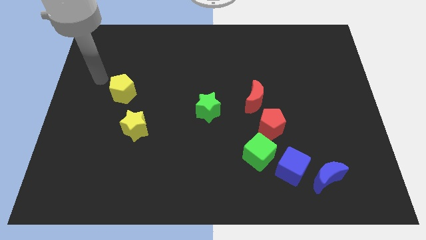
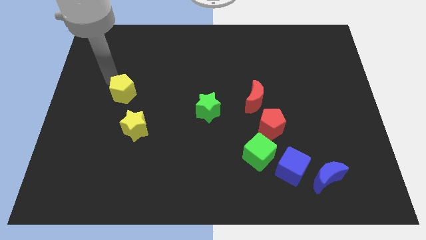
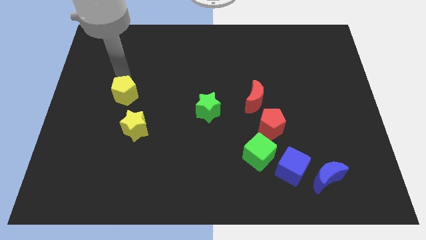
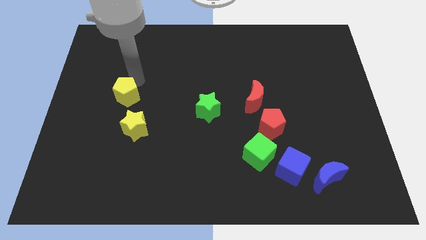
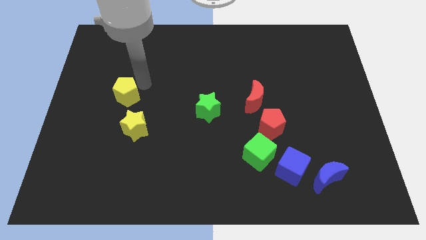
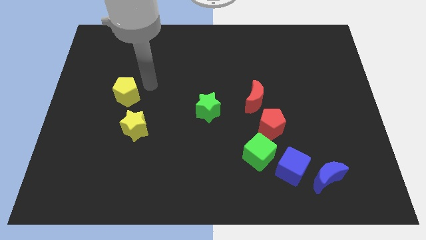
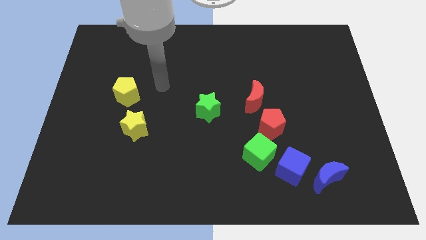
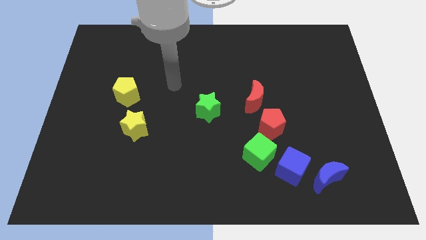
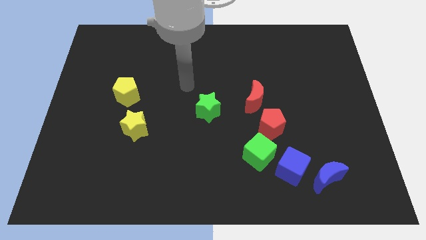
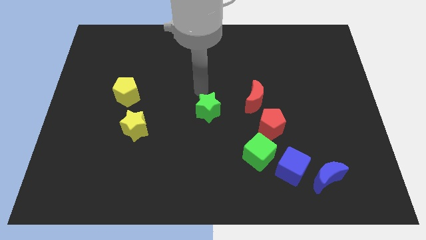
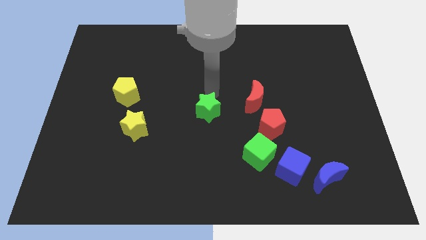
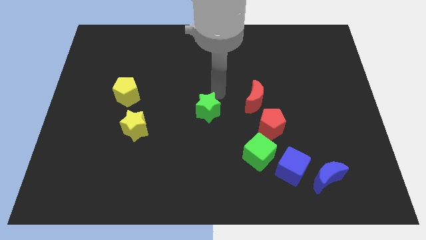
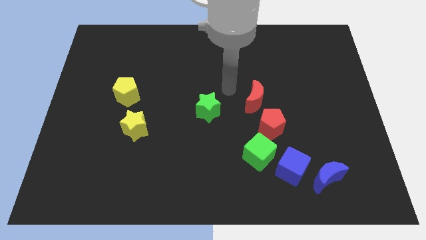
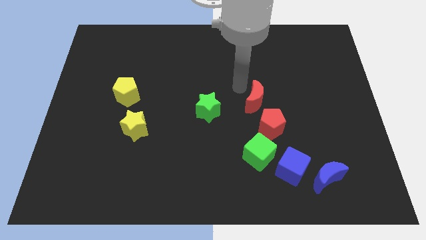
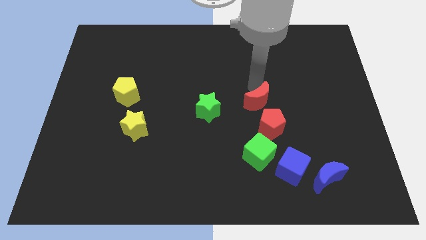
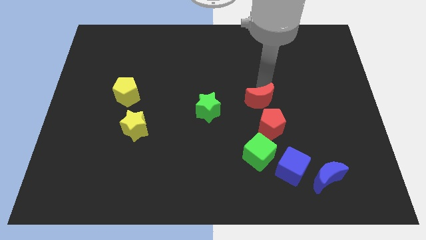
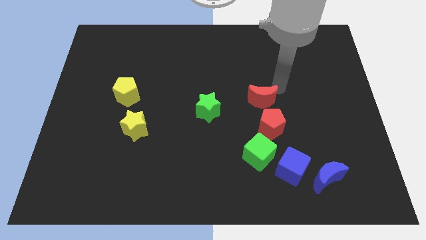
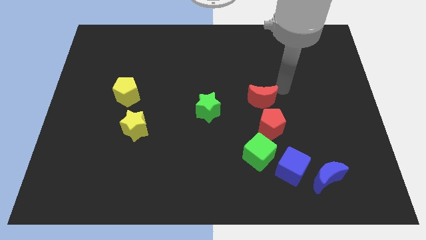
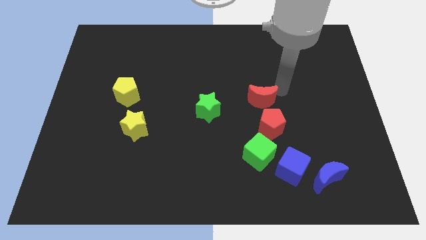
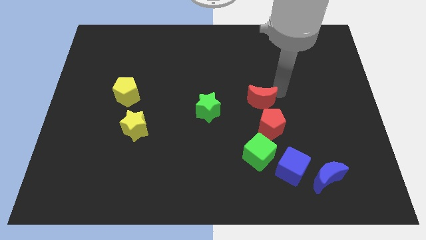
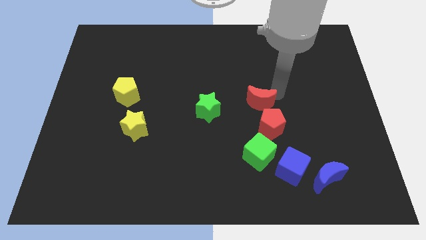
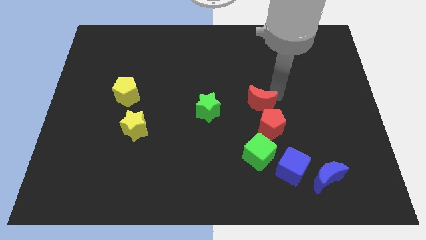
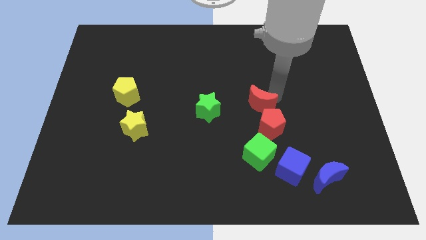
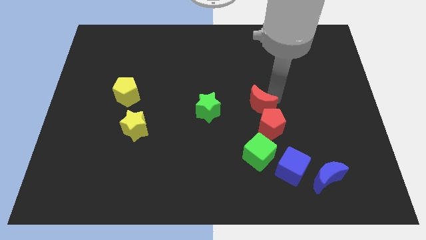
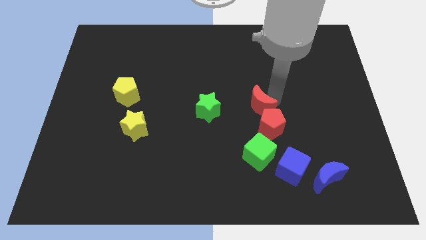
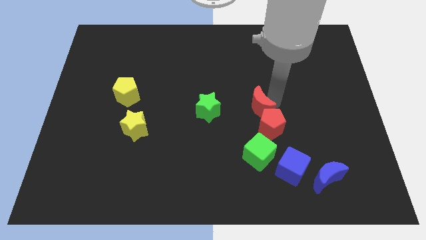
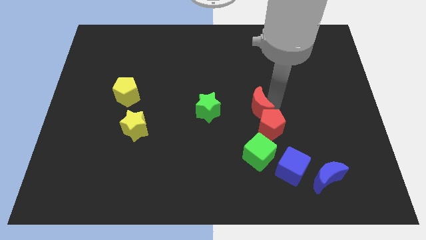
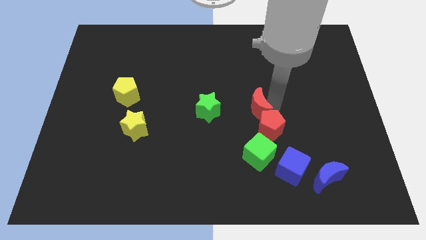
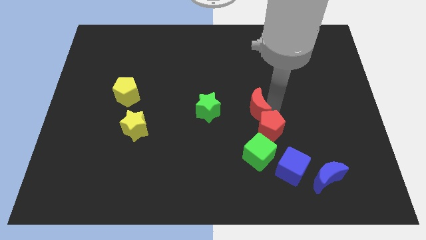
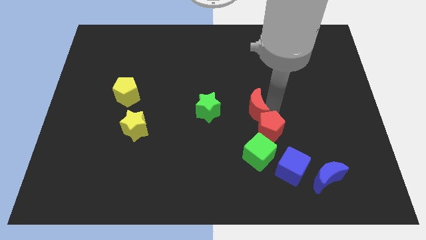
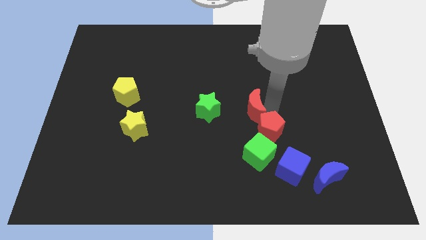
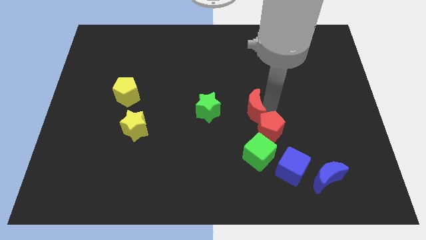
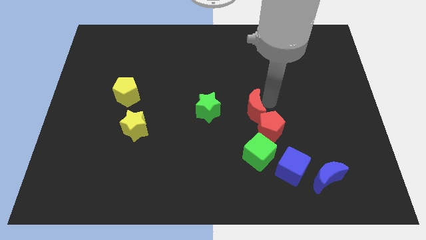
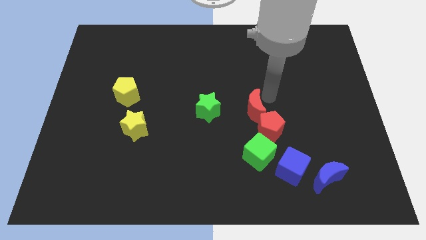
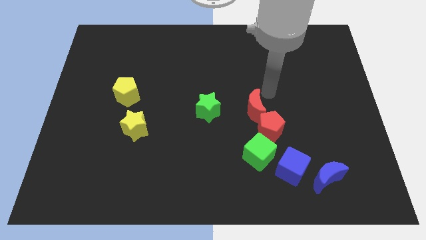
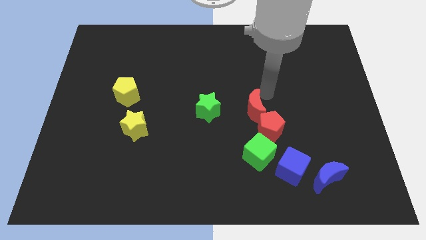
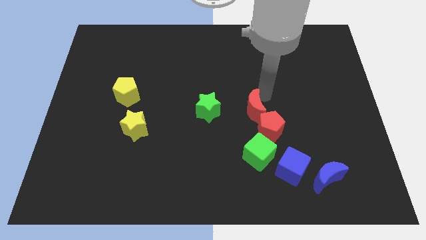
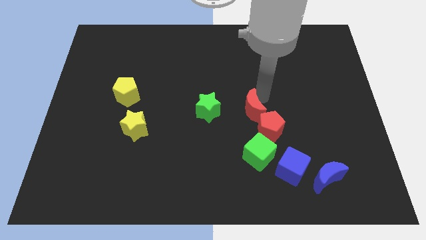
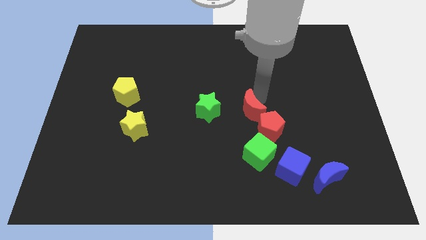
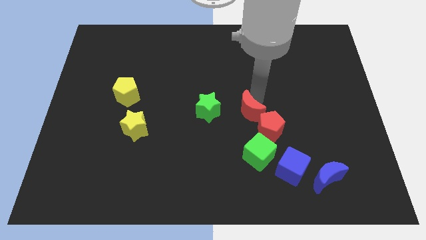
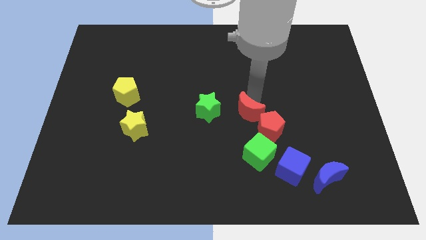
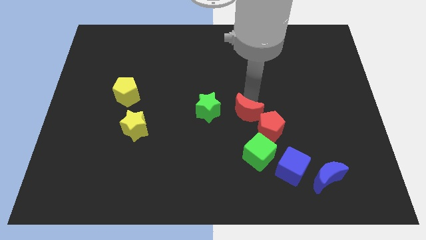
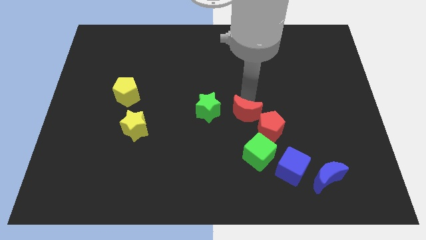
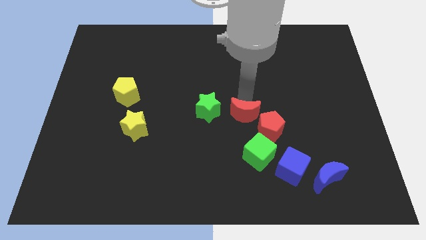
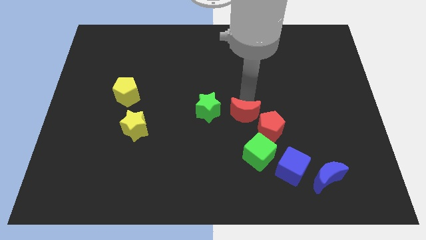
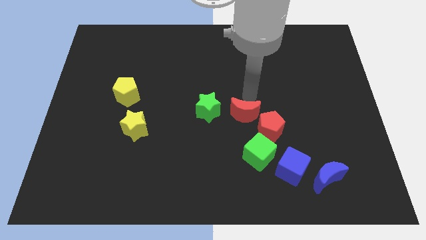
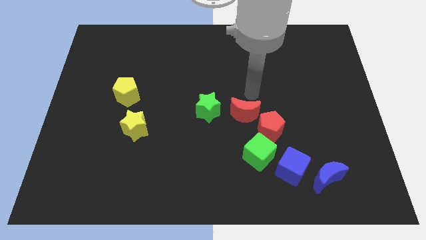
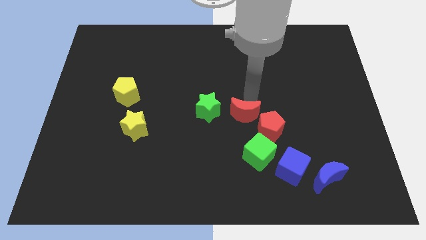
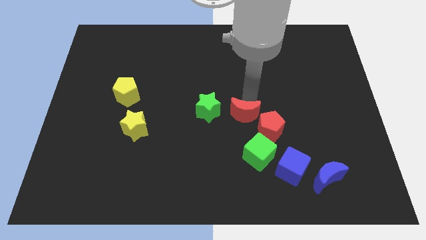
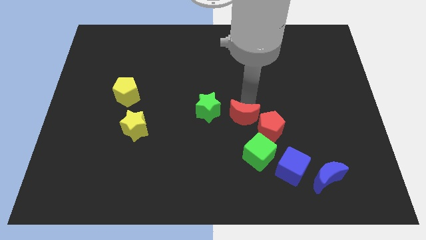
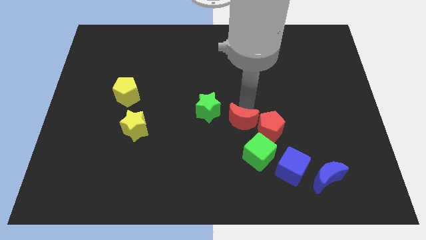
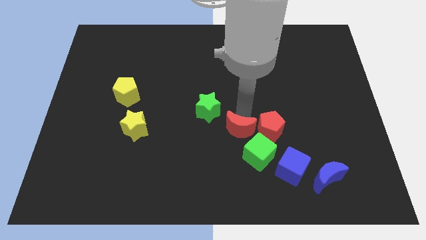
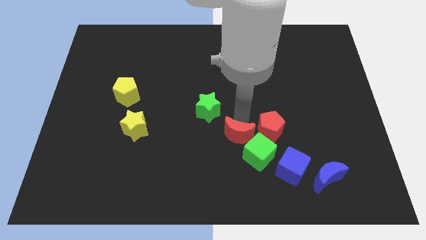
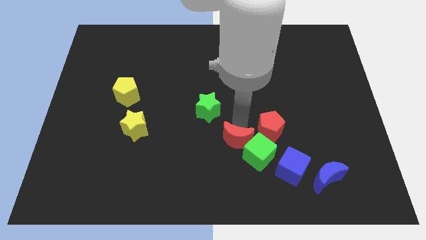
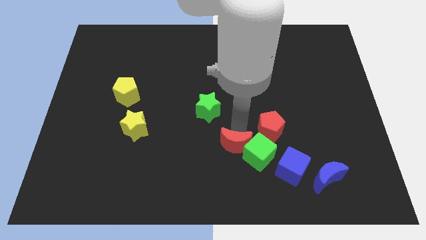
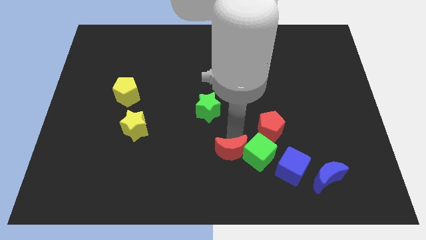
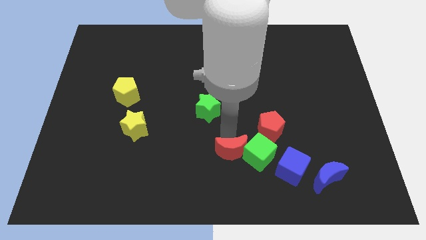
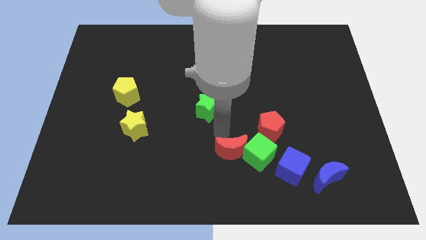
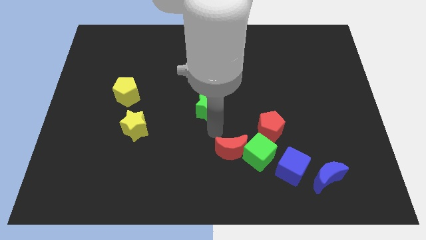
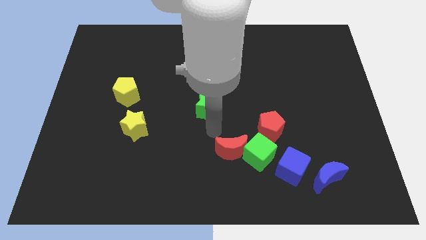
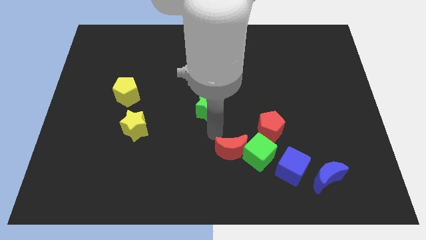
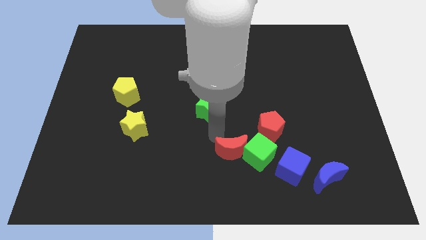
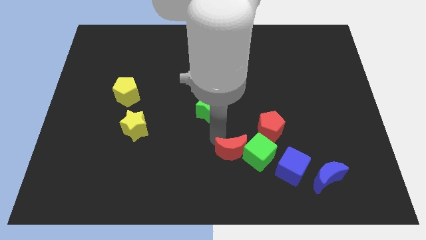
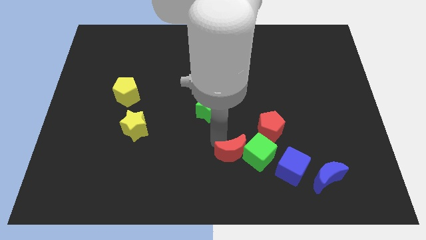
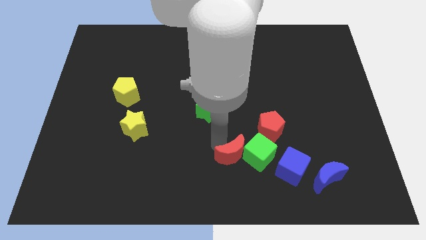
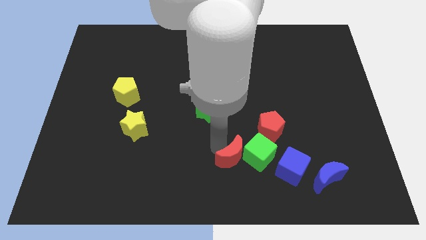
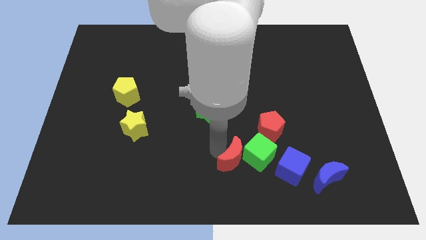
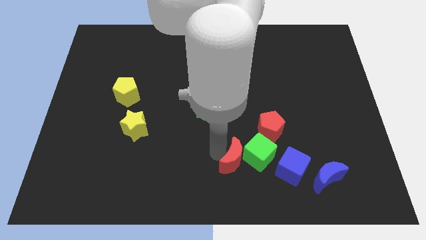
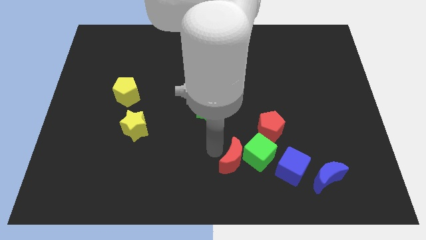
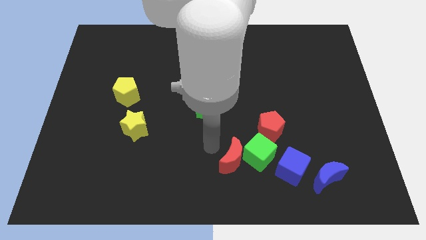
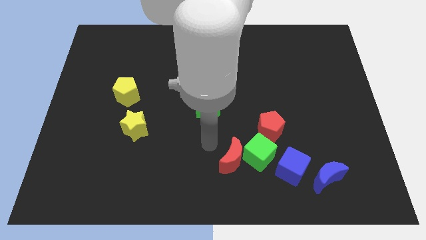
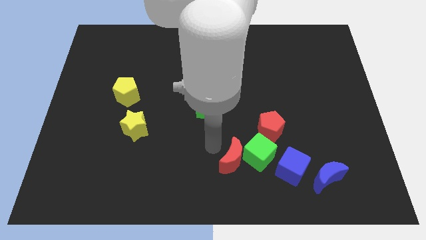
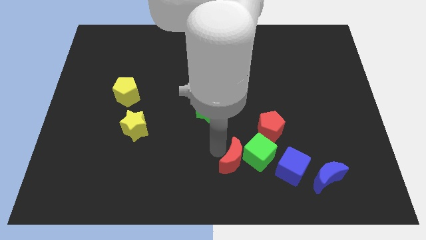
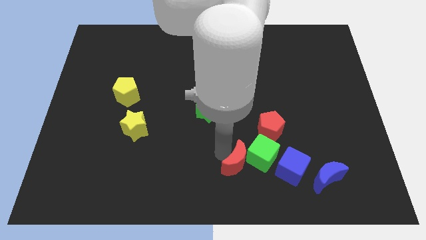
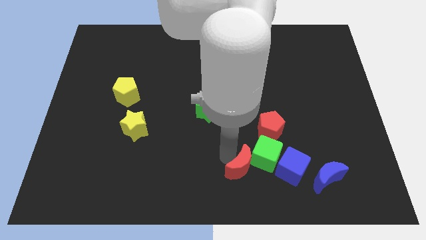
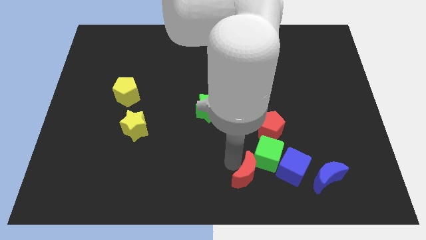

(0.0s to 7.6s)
put the red moon just left of the blue moon
